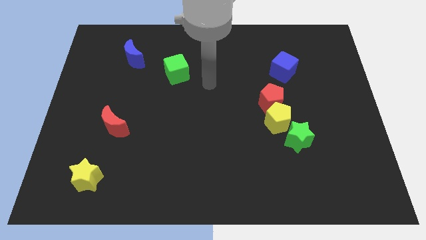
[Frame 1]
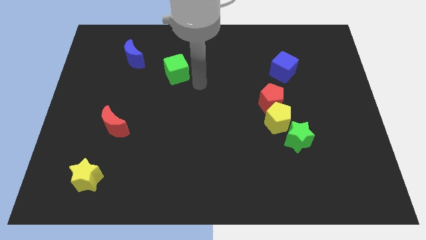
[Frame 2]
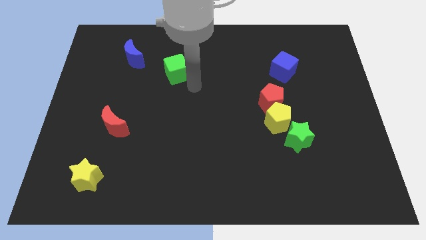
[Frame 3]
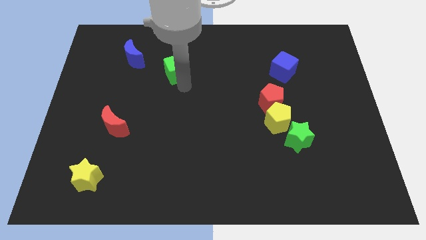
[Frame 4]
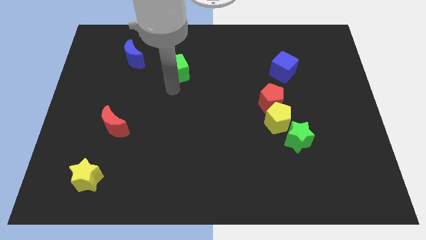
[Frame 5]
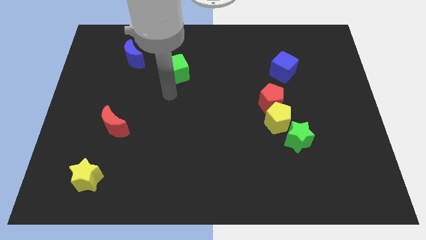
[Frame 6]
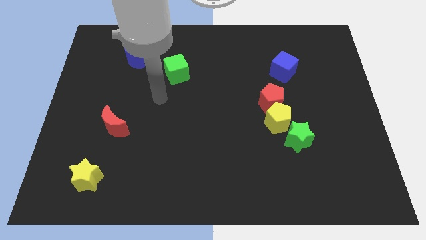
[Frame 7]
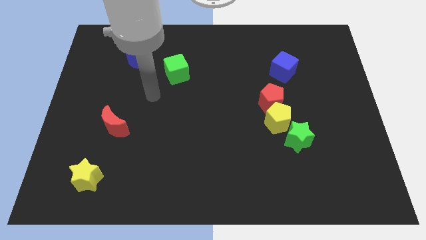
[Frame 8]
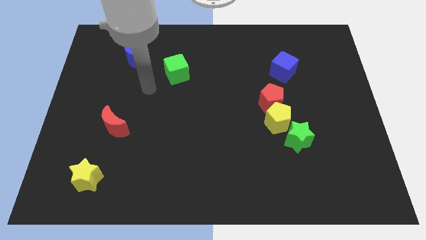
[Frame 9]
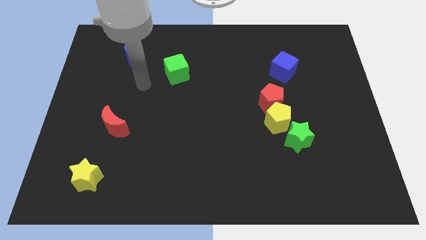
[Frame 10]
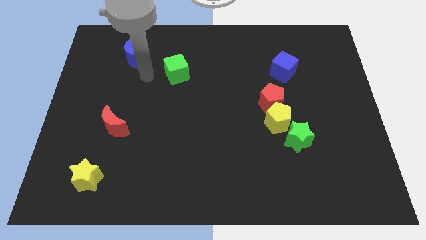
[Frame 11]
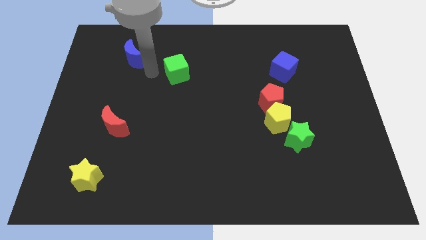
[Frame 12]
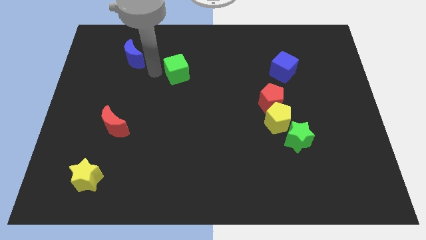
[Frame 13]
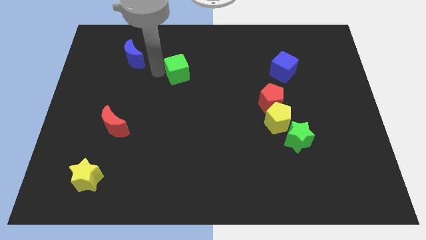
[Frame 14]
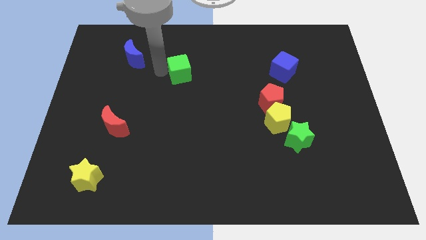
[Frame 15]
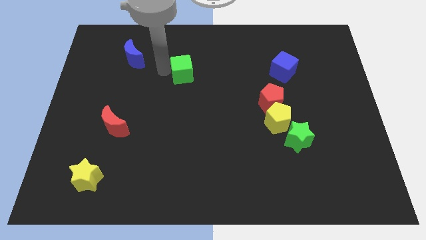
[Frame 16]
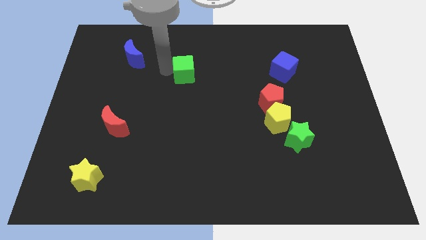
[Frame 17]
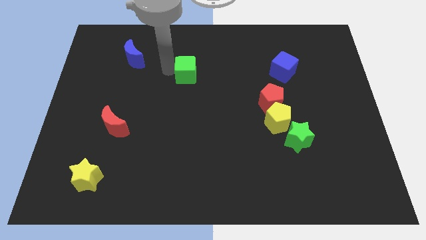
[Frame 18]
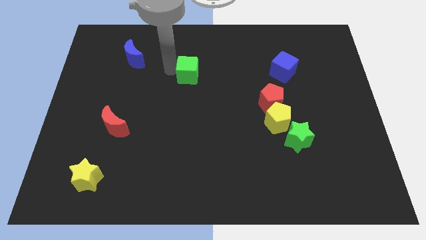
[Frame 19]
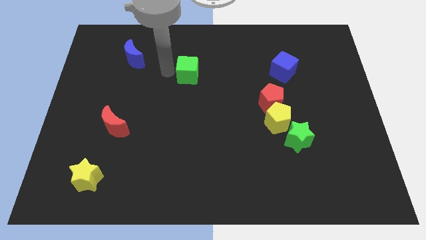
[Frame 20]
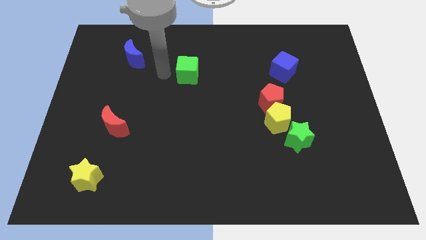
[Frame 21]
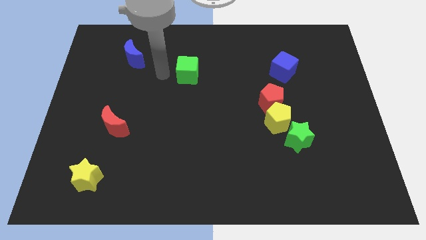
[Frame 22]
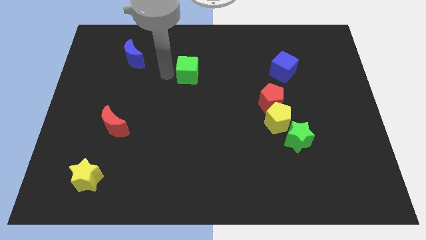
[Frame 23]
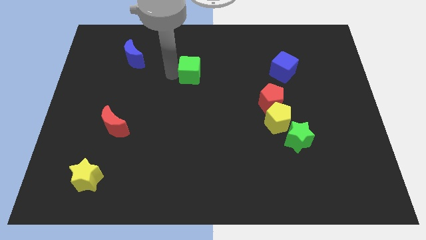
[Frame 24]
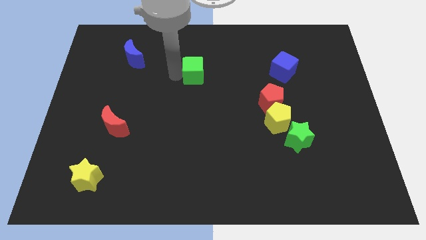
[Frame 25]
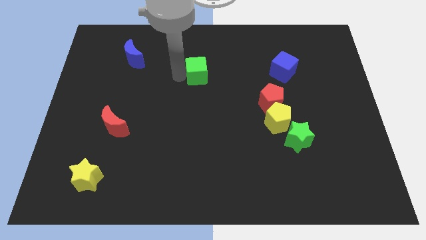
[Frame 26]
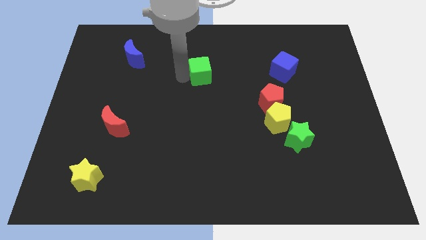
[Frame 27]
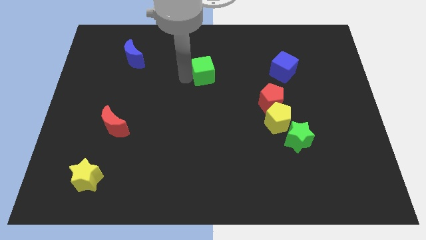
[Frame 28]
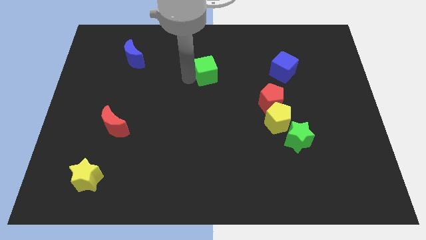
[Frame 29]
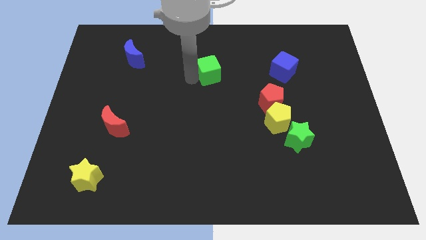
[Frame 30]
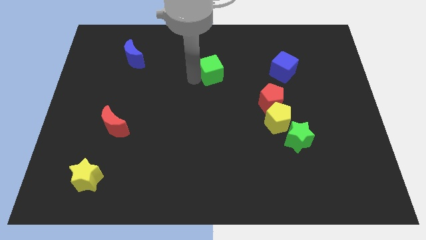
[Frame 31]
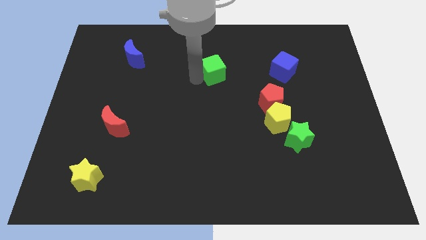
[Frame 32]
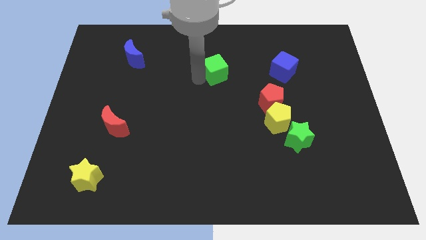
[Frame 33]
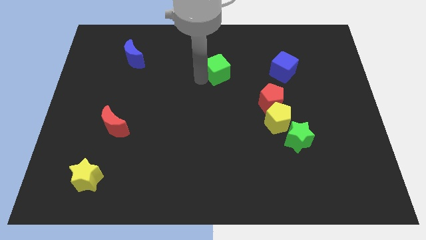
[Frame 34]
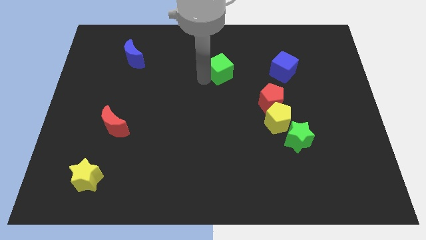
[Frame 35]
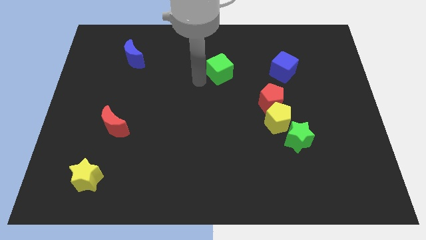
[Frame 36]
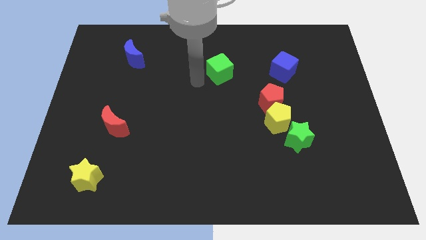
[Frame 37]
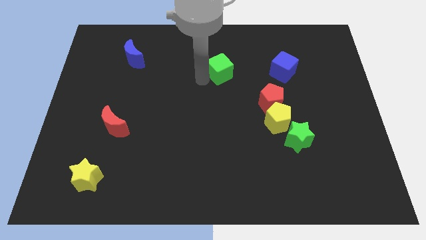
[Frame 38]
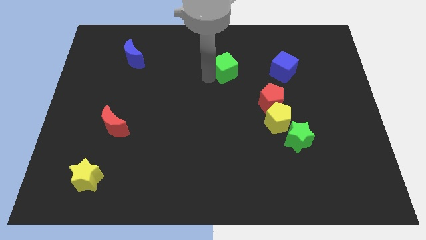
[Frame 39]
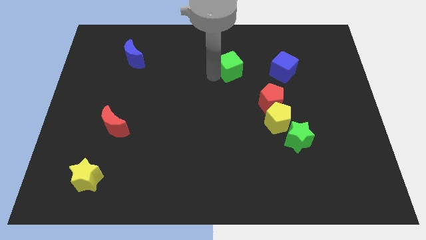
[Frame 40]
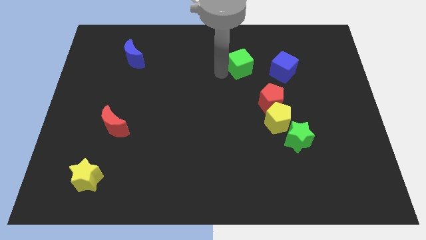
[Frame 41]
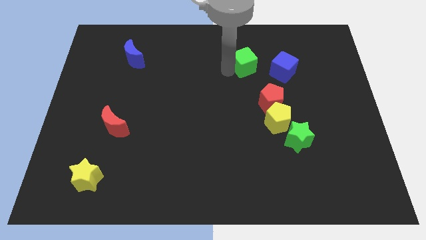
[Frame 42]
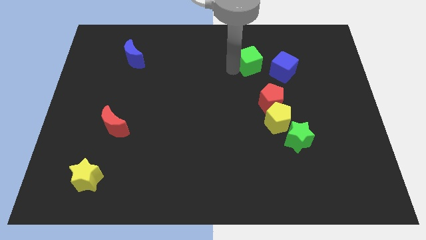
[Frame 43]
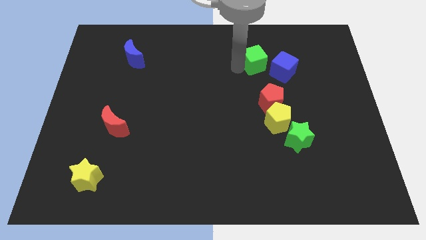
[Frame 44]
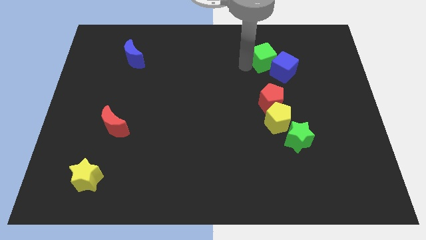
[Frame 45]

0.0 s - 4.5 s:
slide the green cube right

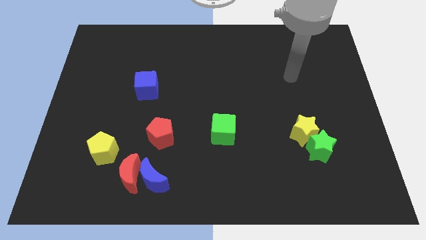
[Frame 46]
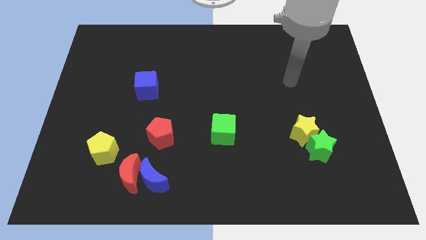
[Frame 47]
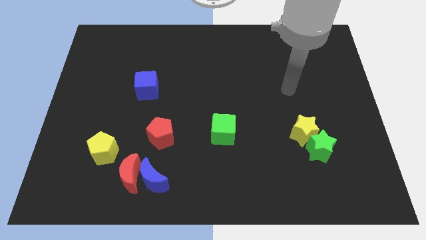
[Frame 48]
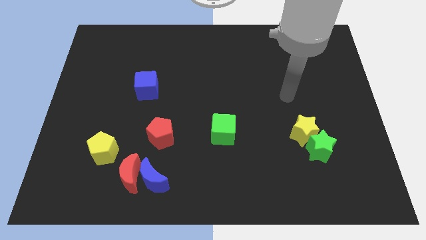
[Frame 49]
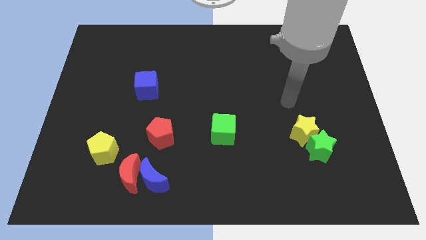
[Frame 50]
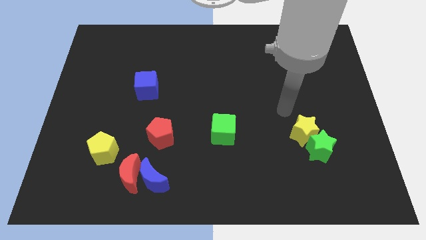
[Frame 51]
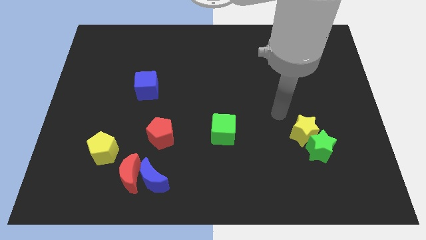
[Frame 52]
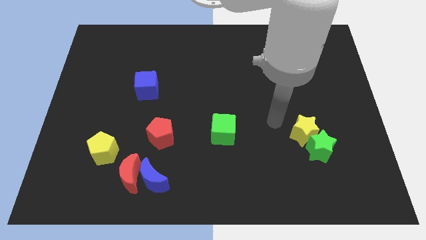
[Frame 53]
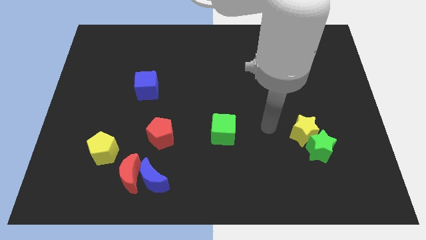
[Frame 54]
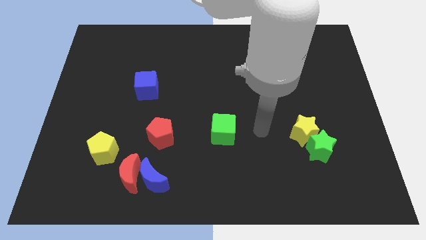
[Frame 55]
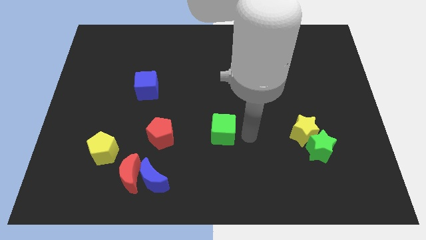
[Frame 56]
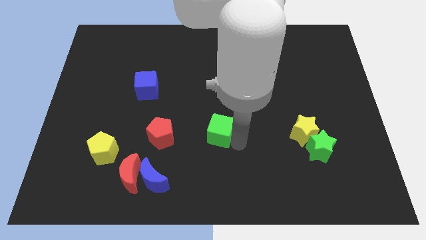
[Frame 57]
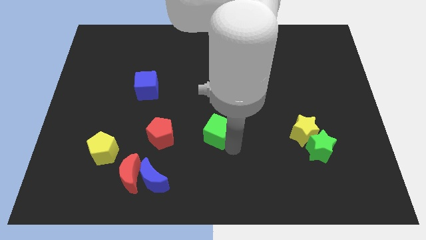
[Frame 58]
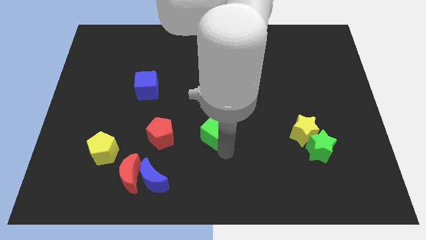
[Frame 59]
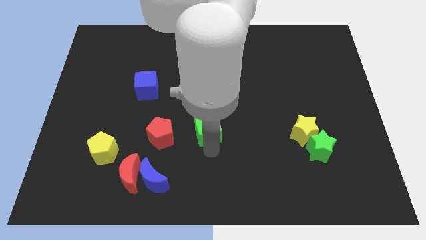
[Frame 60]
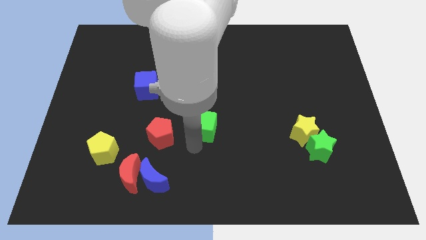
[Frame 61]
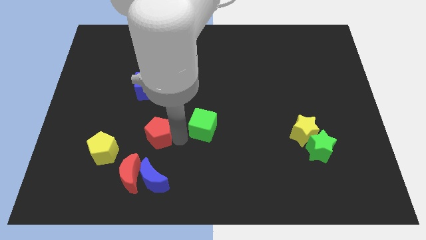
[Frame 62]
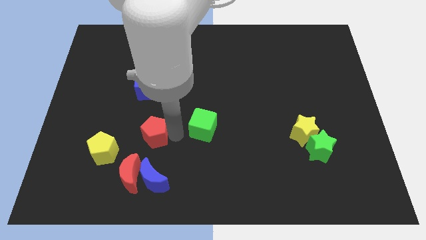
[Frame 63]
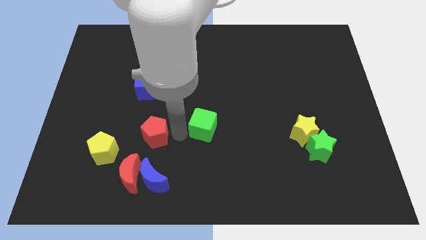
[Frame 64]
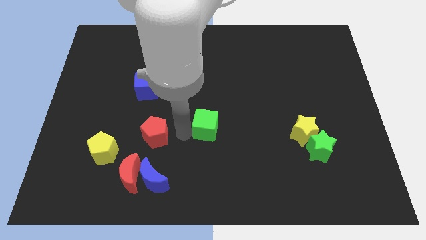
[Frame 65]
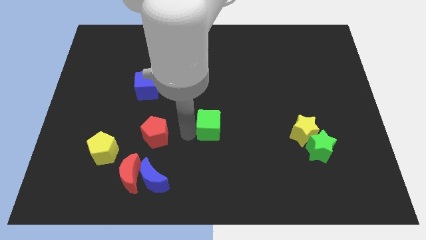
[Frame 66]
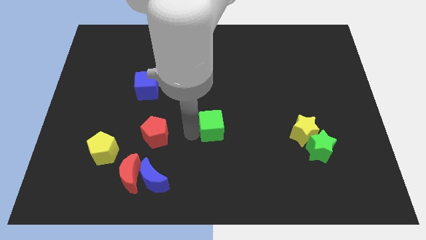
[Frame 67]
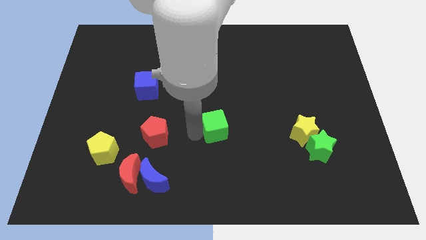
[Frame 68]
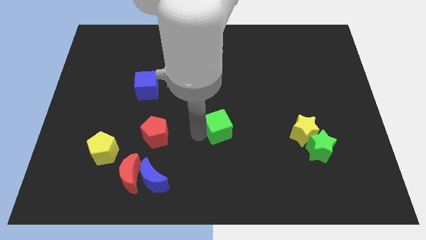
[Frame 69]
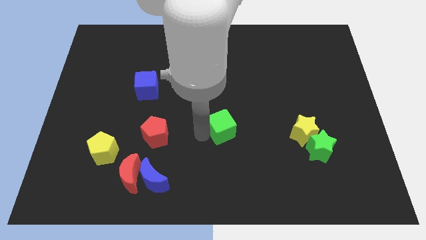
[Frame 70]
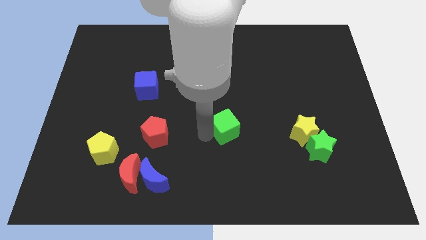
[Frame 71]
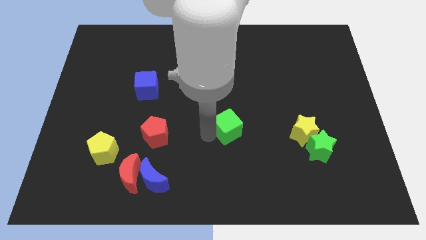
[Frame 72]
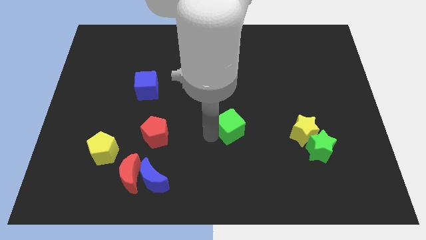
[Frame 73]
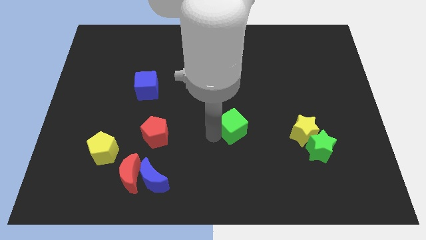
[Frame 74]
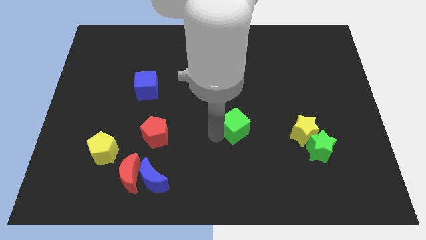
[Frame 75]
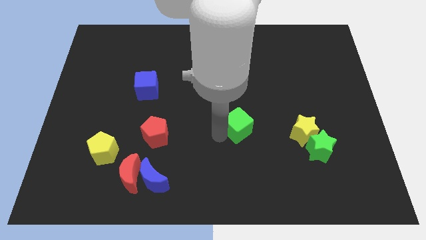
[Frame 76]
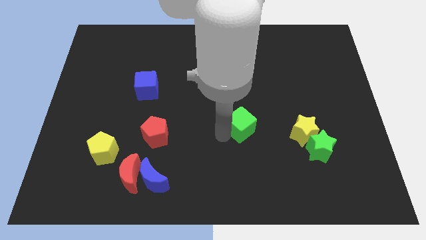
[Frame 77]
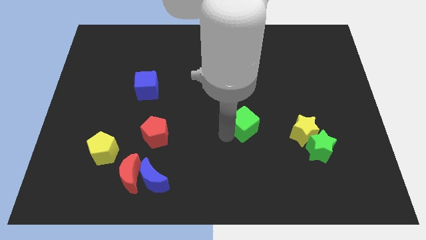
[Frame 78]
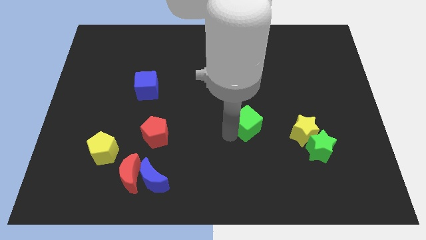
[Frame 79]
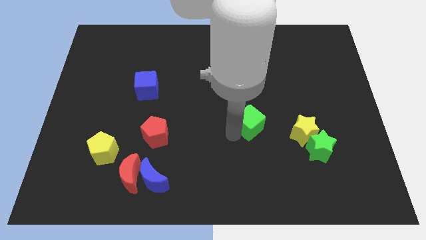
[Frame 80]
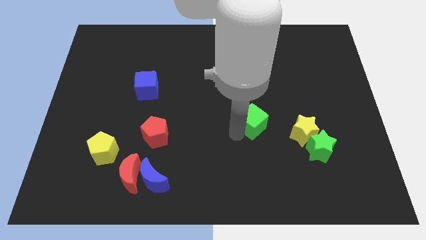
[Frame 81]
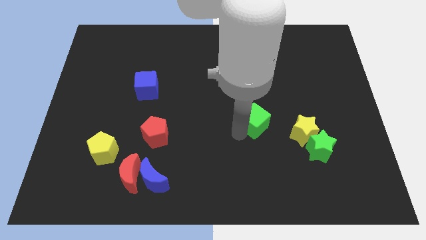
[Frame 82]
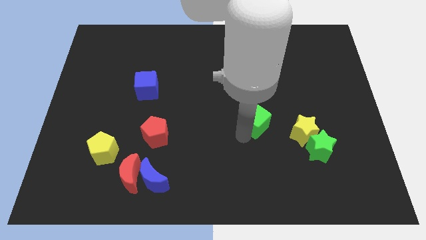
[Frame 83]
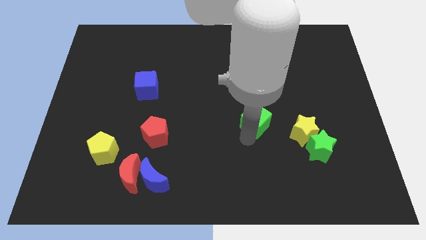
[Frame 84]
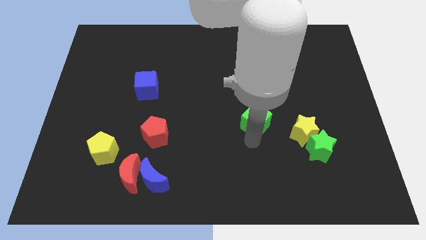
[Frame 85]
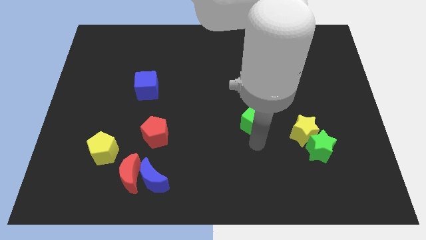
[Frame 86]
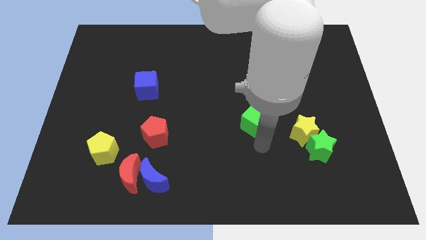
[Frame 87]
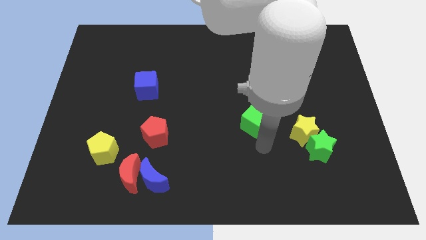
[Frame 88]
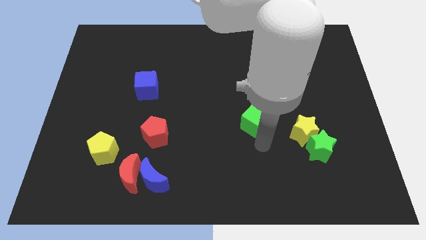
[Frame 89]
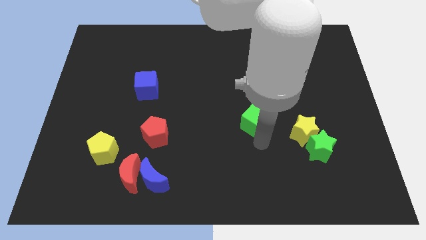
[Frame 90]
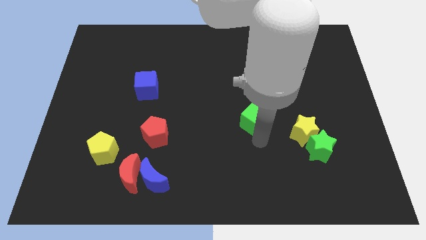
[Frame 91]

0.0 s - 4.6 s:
push the green cube somewhat upwards and then right
